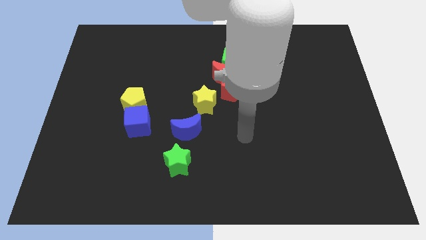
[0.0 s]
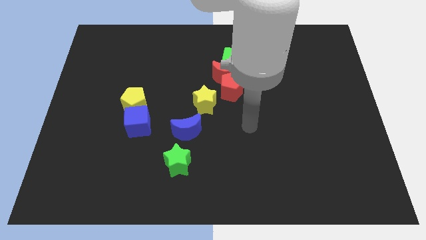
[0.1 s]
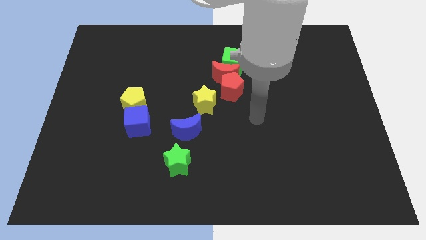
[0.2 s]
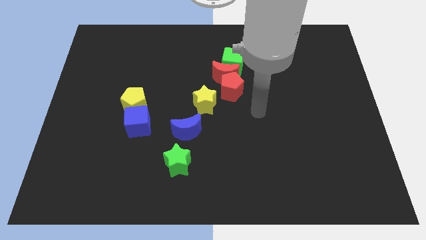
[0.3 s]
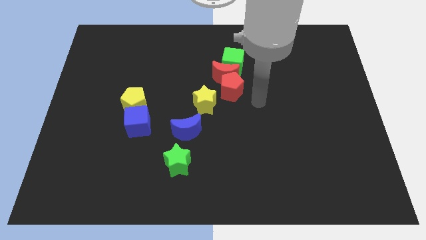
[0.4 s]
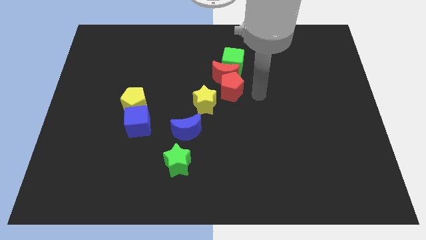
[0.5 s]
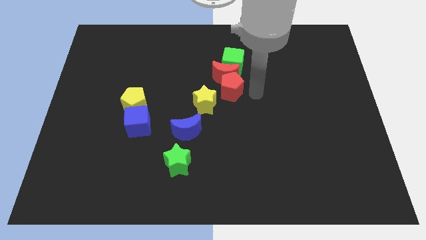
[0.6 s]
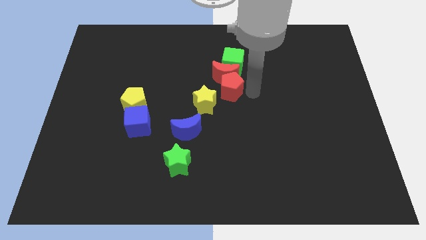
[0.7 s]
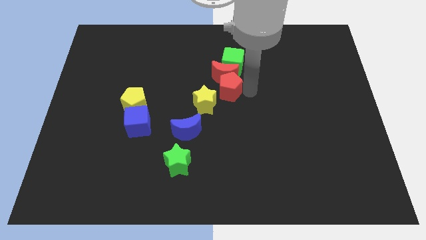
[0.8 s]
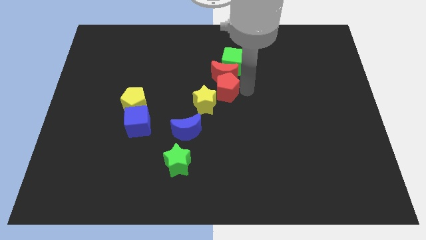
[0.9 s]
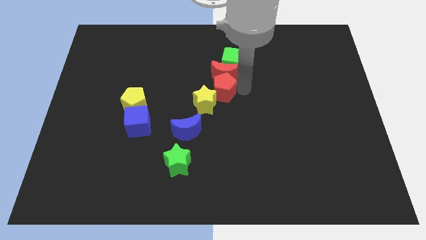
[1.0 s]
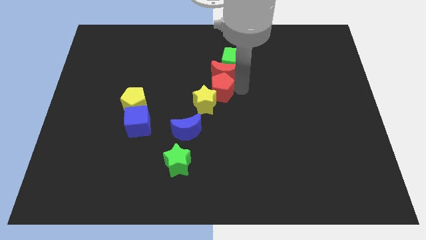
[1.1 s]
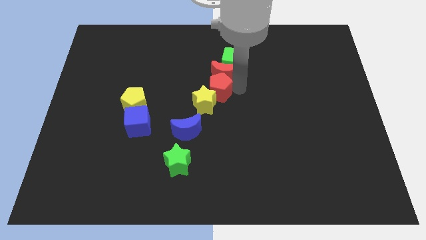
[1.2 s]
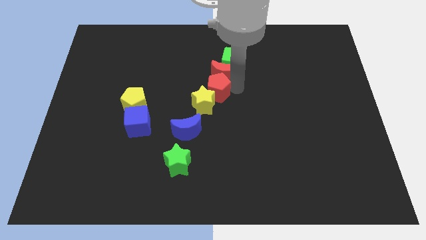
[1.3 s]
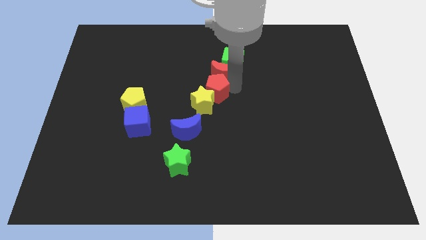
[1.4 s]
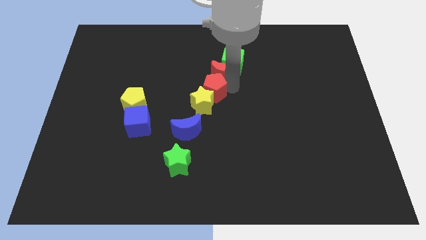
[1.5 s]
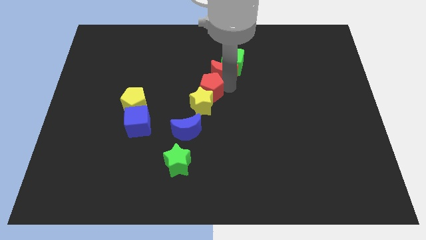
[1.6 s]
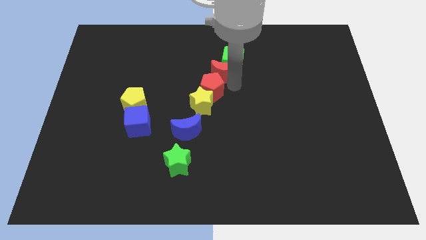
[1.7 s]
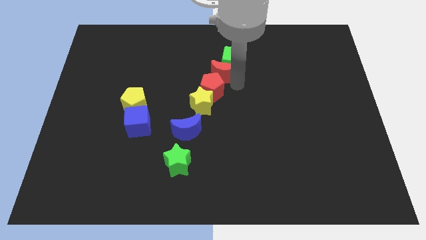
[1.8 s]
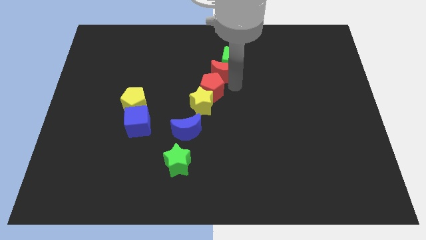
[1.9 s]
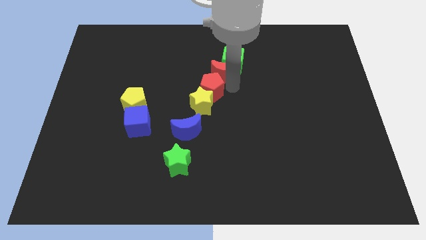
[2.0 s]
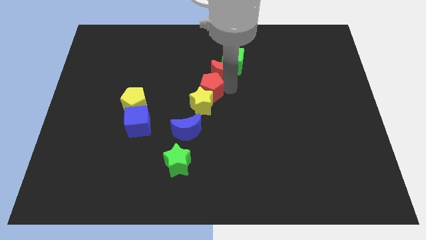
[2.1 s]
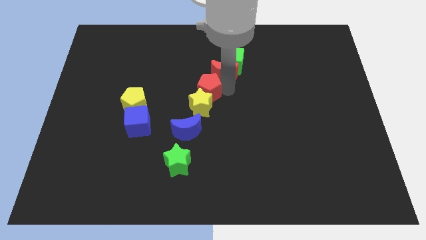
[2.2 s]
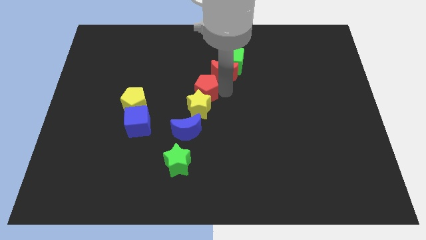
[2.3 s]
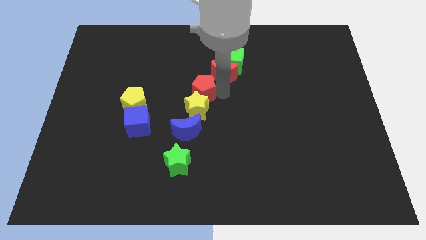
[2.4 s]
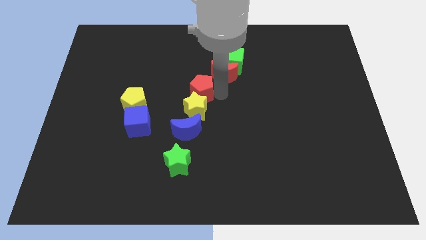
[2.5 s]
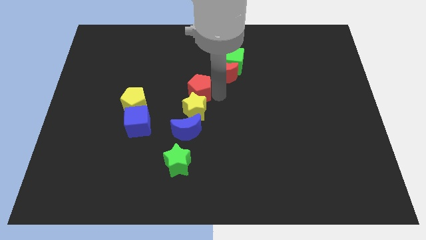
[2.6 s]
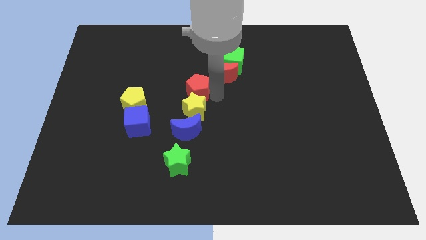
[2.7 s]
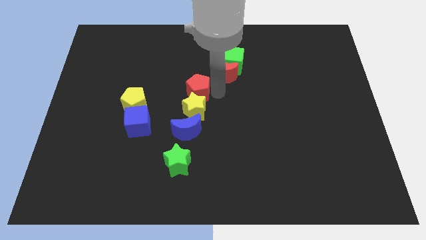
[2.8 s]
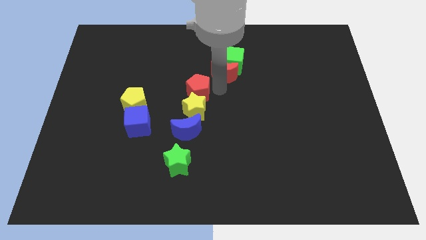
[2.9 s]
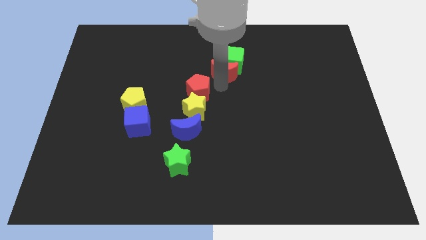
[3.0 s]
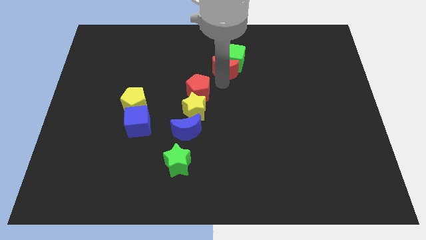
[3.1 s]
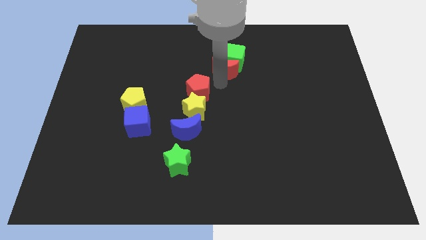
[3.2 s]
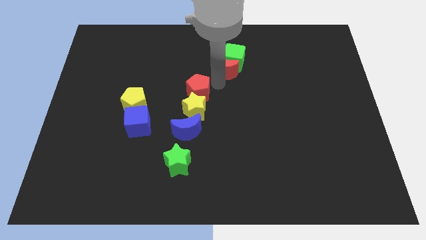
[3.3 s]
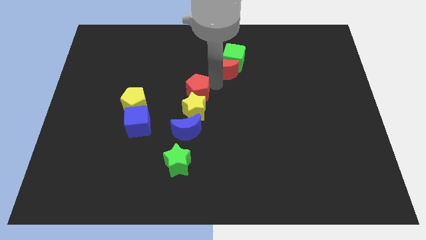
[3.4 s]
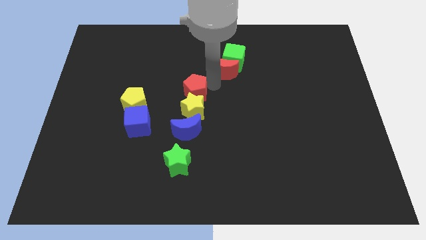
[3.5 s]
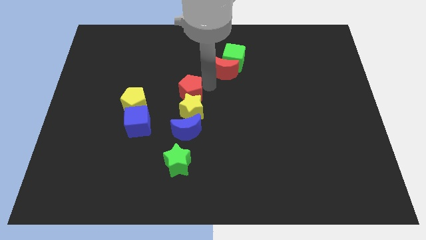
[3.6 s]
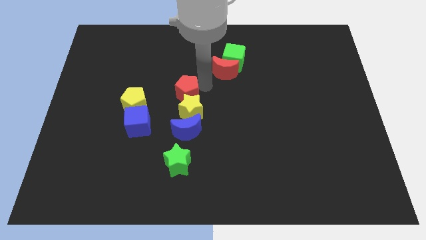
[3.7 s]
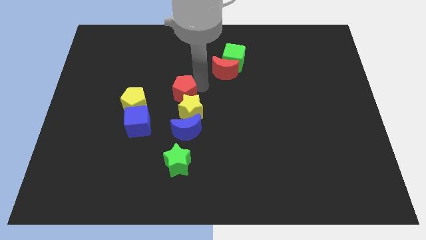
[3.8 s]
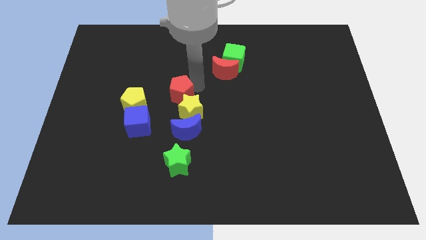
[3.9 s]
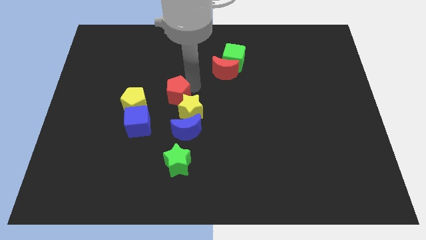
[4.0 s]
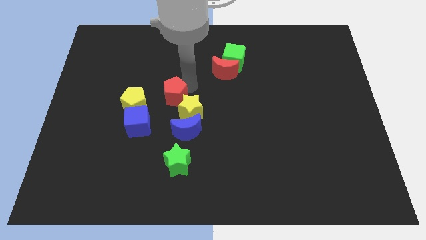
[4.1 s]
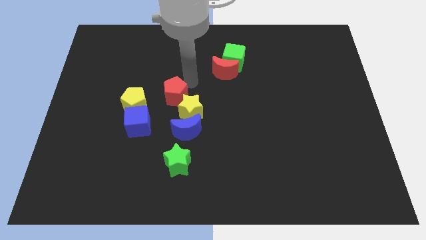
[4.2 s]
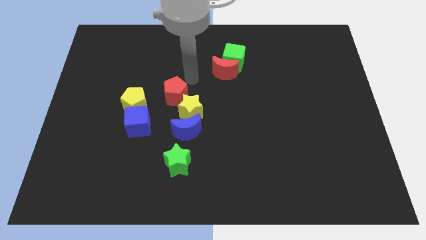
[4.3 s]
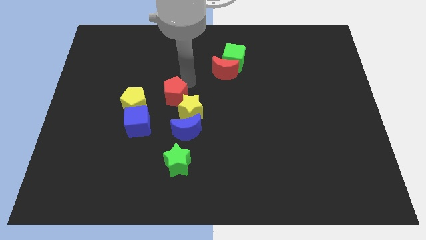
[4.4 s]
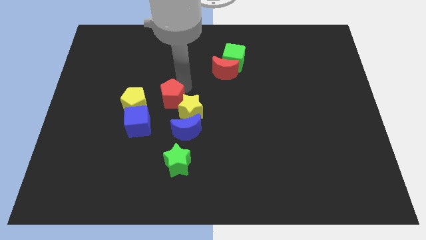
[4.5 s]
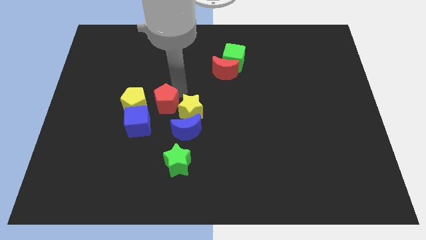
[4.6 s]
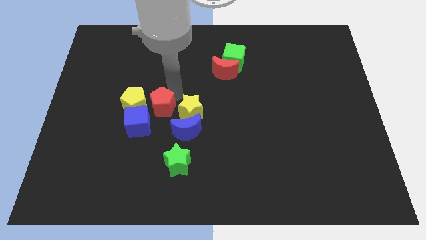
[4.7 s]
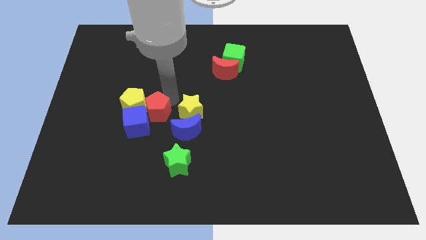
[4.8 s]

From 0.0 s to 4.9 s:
put the red pentagon close to the blue cube
